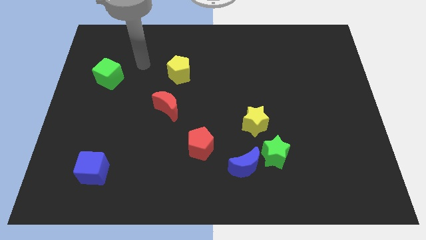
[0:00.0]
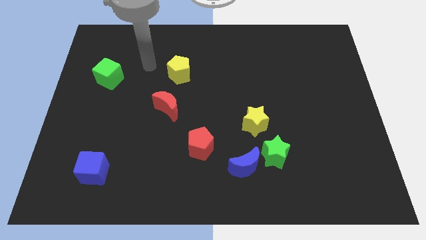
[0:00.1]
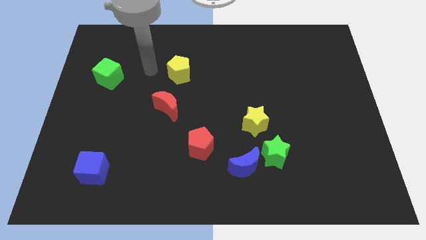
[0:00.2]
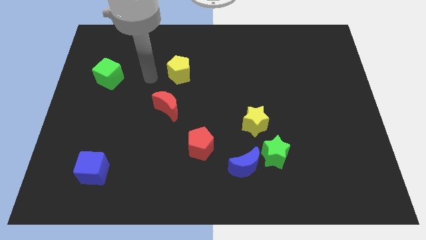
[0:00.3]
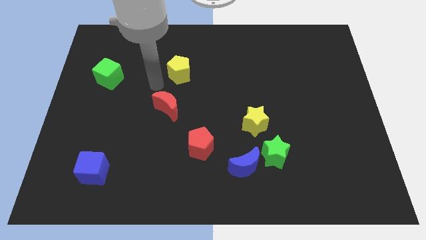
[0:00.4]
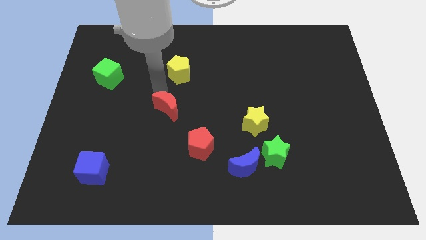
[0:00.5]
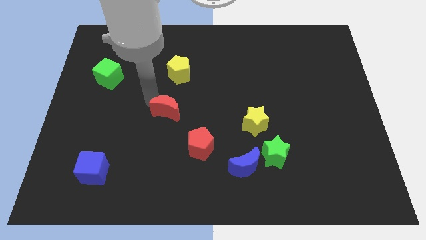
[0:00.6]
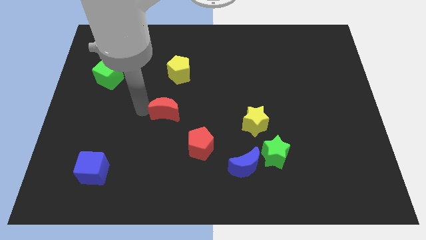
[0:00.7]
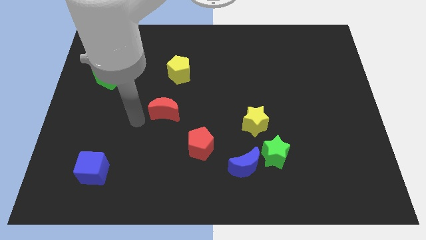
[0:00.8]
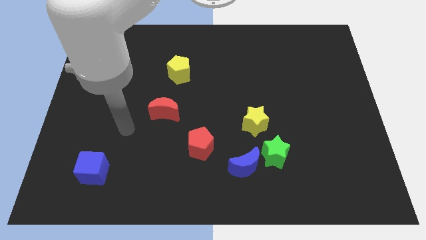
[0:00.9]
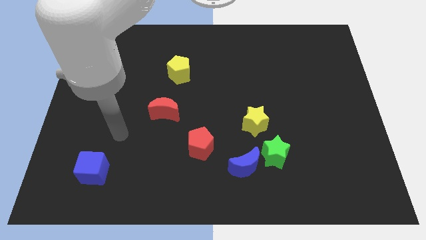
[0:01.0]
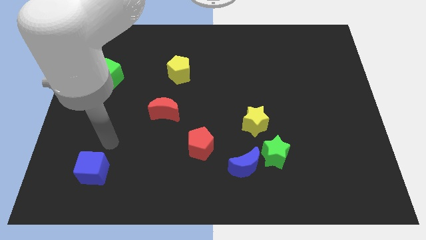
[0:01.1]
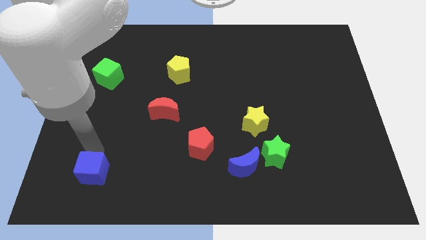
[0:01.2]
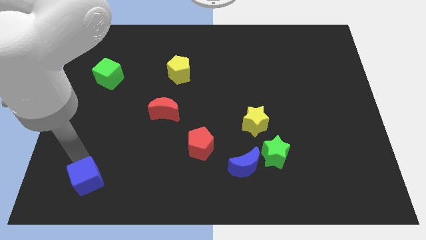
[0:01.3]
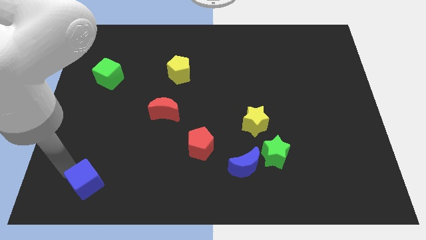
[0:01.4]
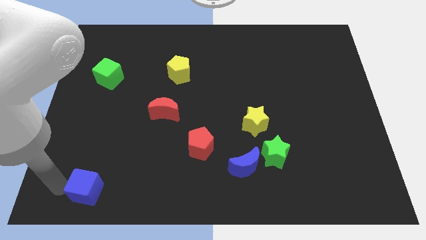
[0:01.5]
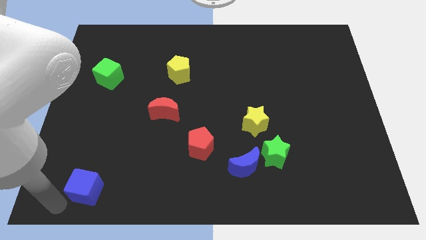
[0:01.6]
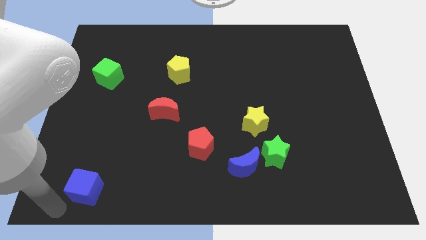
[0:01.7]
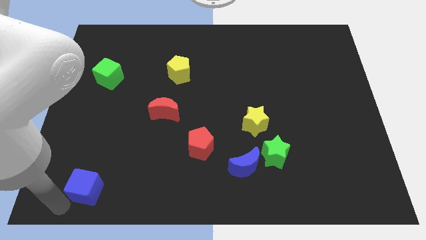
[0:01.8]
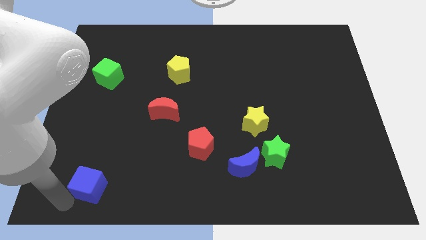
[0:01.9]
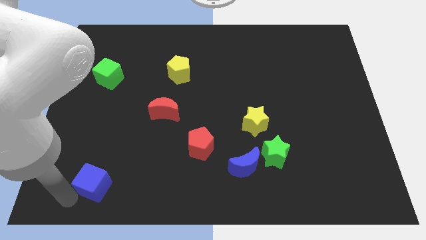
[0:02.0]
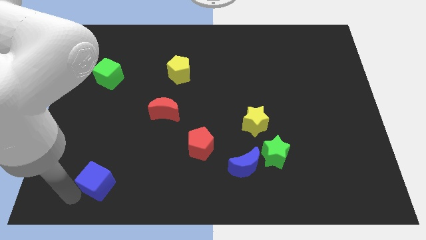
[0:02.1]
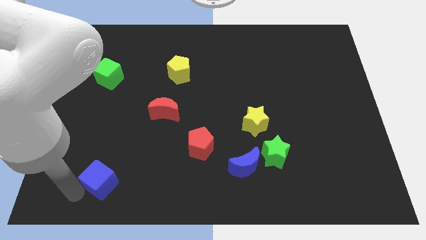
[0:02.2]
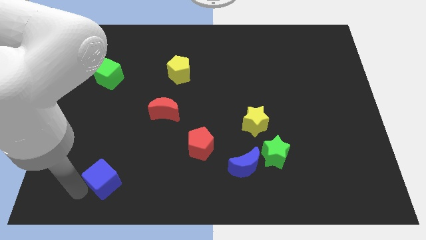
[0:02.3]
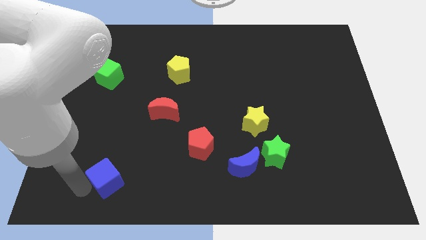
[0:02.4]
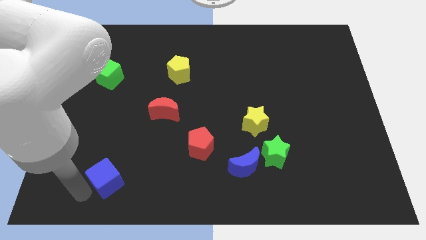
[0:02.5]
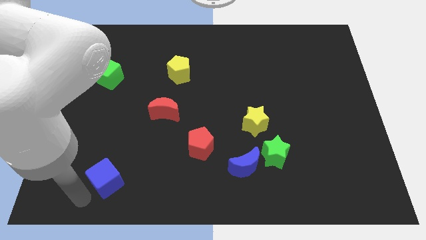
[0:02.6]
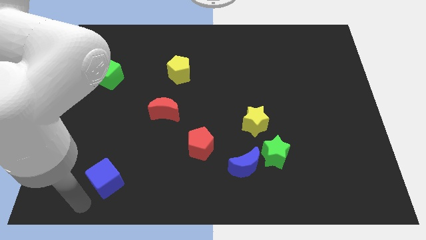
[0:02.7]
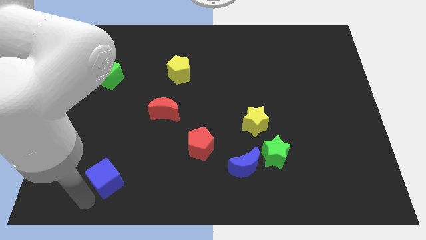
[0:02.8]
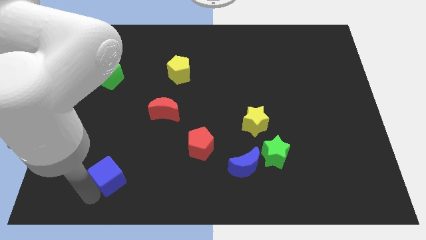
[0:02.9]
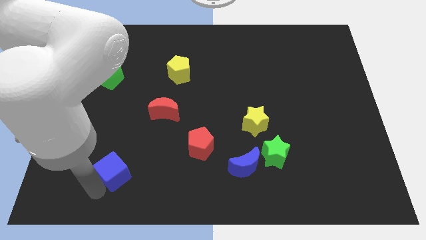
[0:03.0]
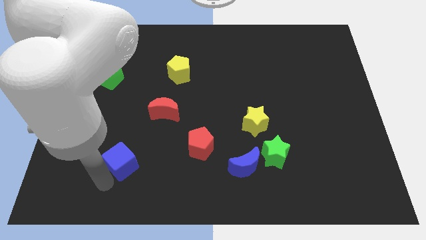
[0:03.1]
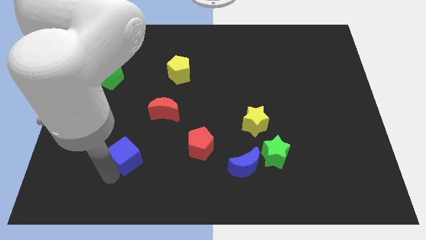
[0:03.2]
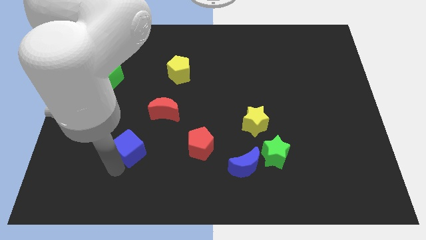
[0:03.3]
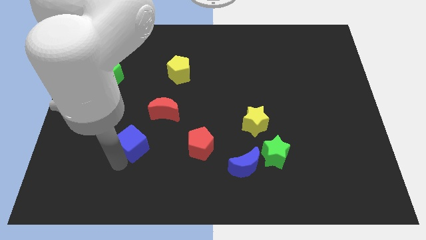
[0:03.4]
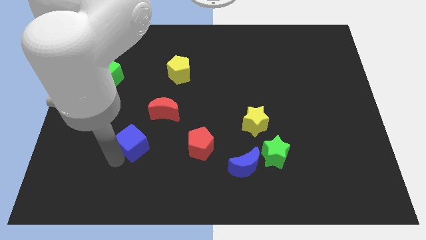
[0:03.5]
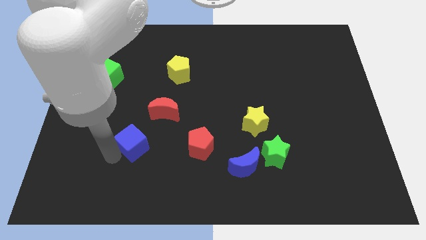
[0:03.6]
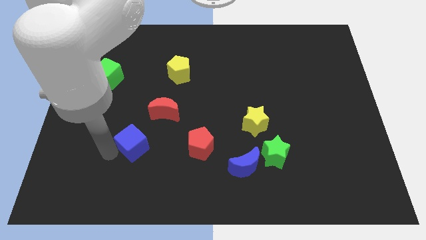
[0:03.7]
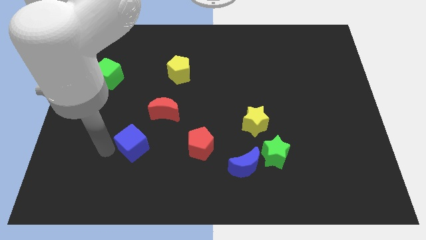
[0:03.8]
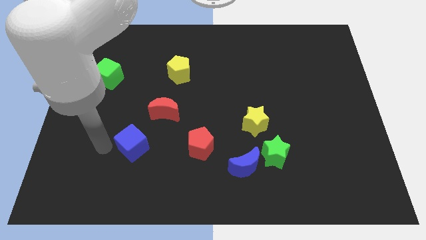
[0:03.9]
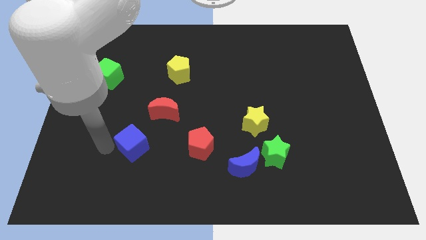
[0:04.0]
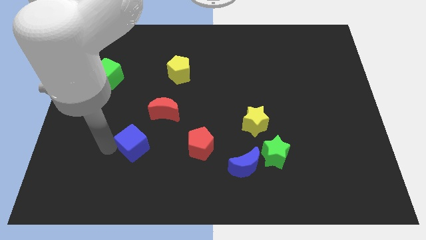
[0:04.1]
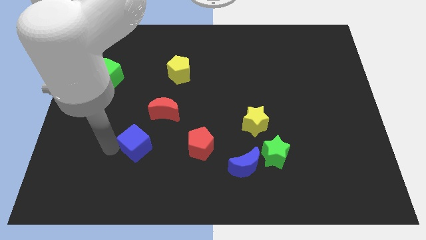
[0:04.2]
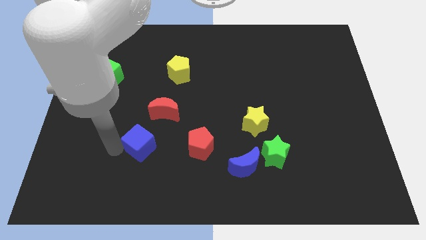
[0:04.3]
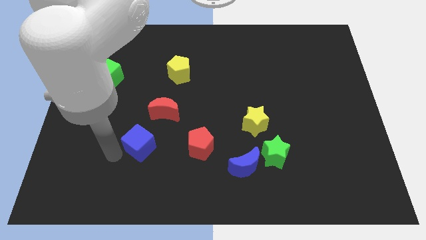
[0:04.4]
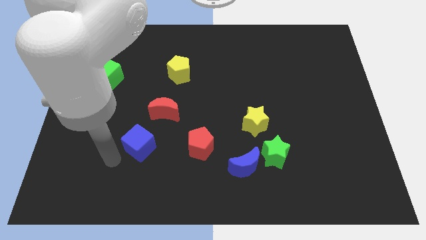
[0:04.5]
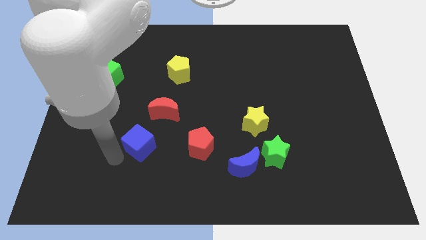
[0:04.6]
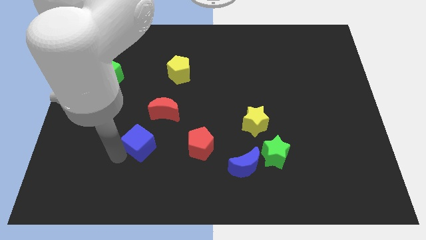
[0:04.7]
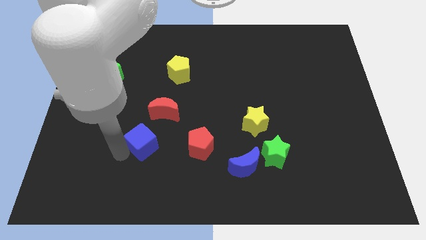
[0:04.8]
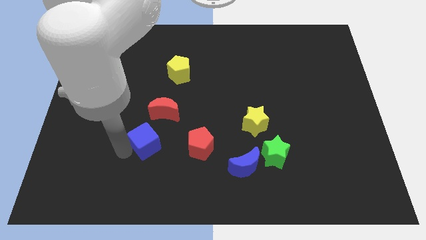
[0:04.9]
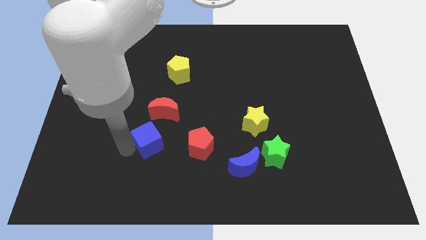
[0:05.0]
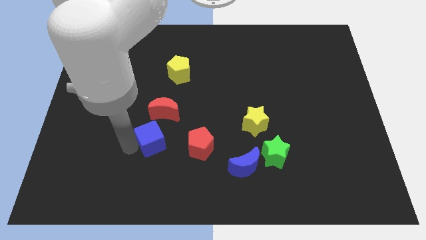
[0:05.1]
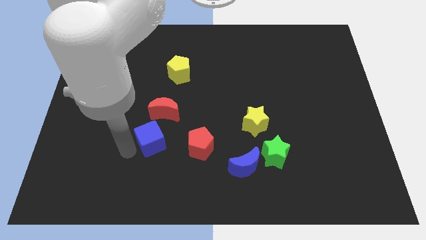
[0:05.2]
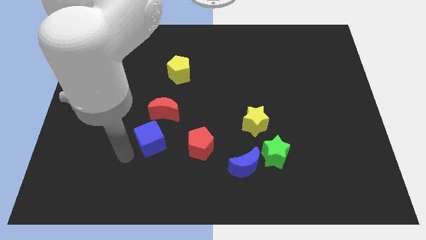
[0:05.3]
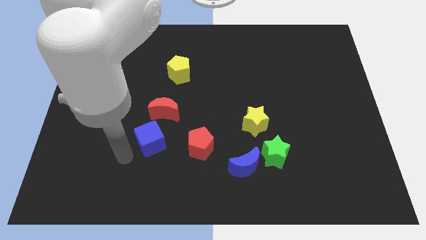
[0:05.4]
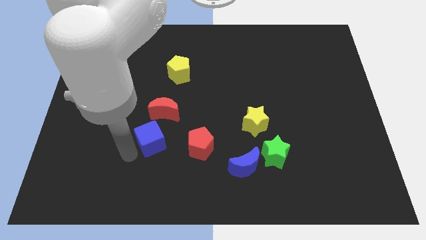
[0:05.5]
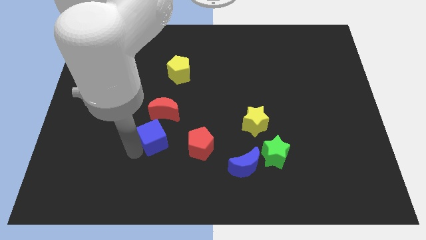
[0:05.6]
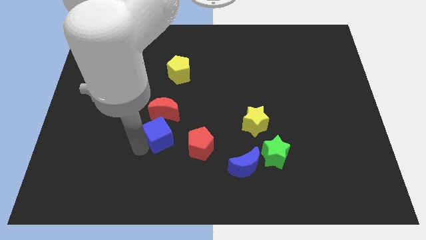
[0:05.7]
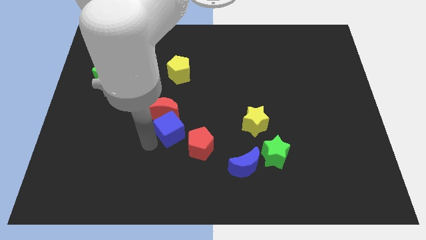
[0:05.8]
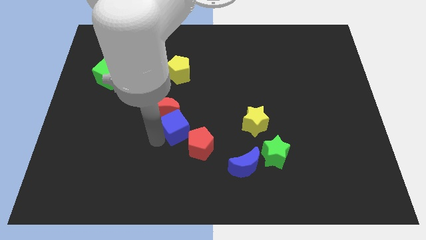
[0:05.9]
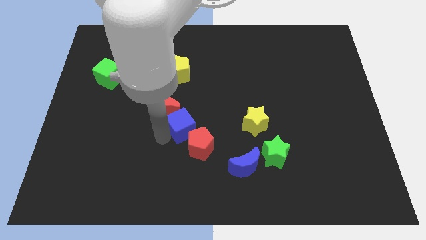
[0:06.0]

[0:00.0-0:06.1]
push the blue cube to the top side of the red pentagon

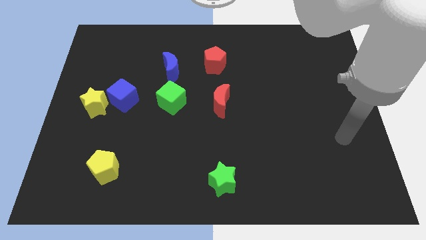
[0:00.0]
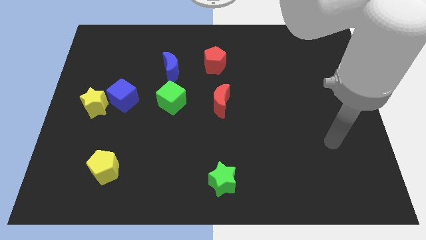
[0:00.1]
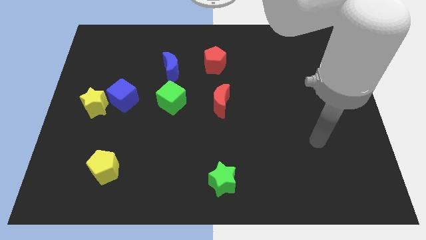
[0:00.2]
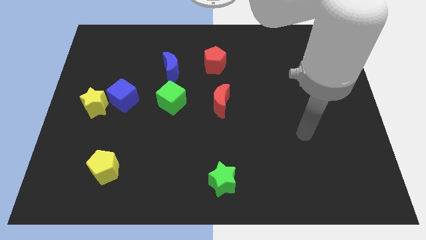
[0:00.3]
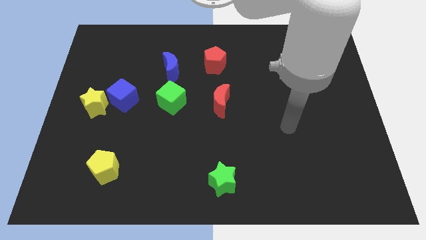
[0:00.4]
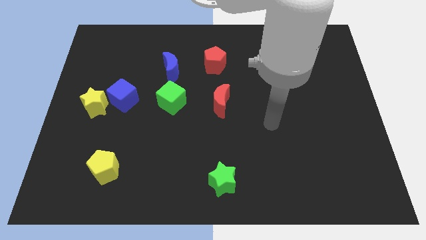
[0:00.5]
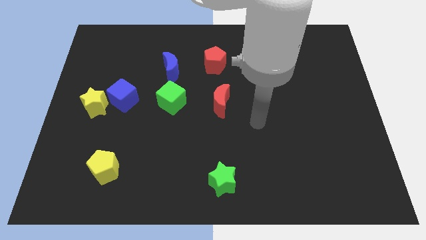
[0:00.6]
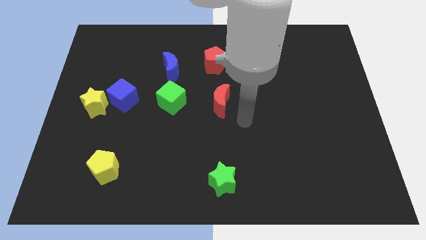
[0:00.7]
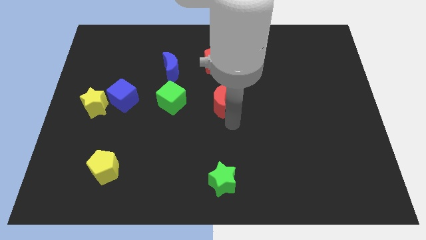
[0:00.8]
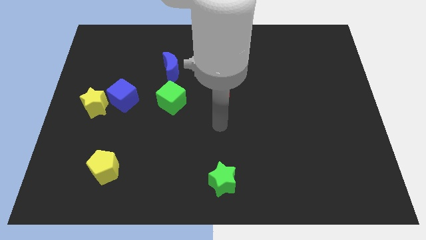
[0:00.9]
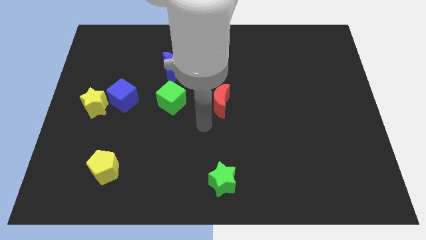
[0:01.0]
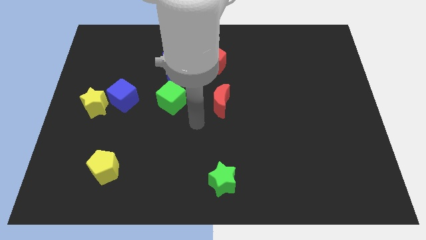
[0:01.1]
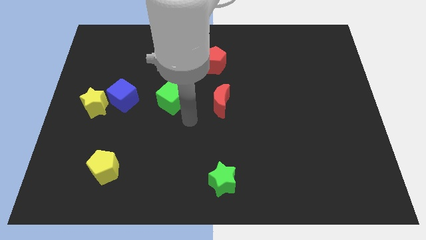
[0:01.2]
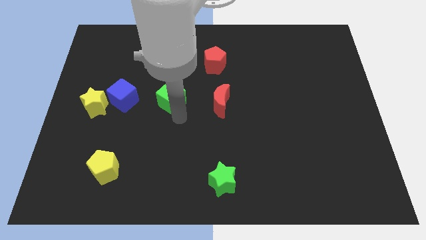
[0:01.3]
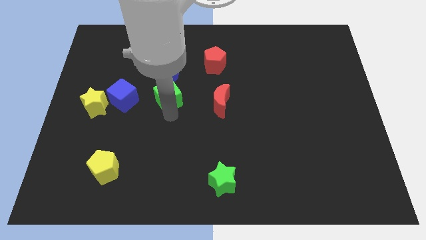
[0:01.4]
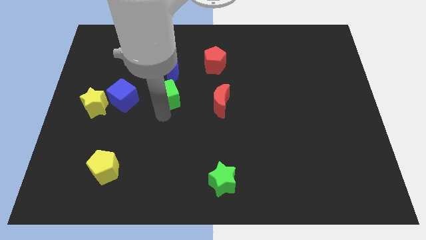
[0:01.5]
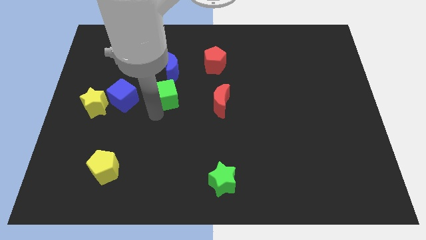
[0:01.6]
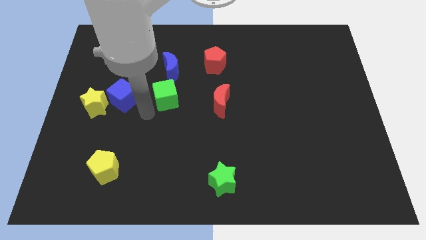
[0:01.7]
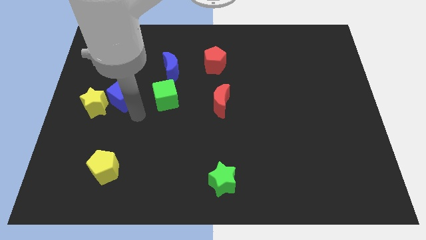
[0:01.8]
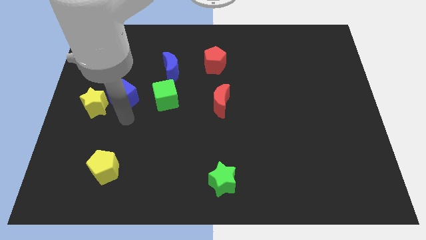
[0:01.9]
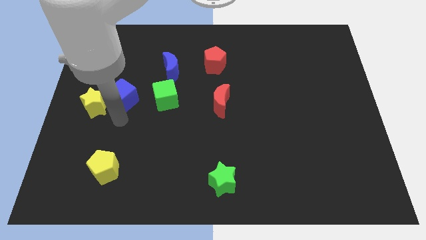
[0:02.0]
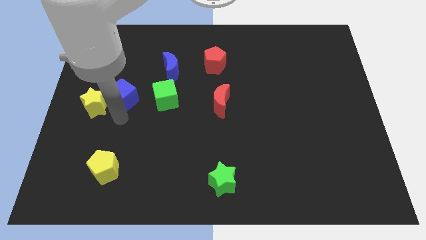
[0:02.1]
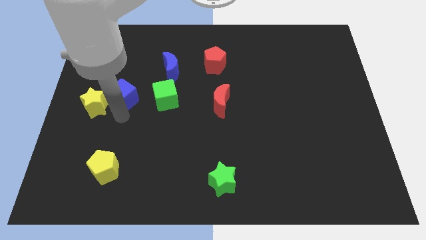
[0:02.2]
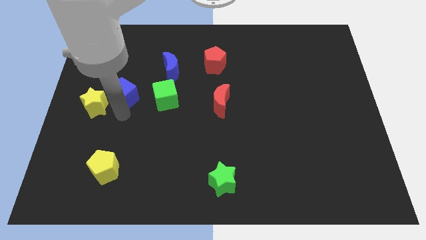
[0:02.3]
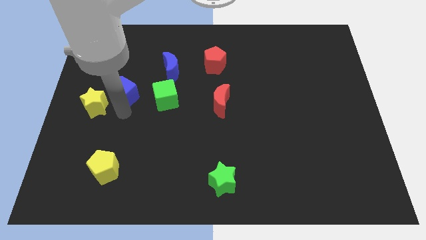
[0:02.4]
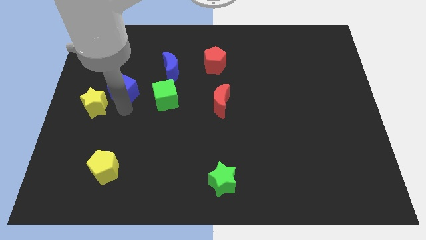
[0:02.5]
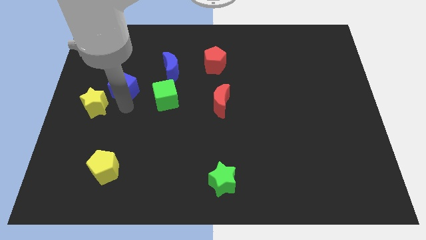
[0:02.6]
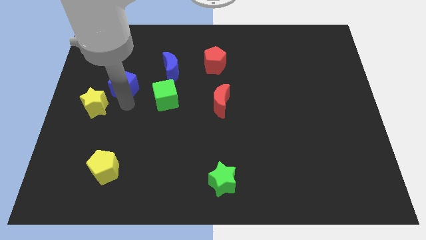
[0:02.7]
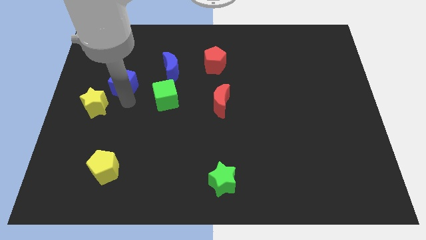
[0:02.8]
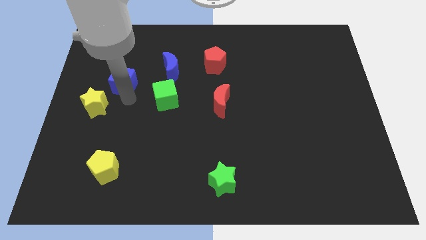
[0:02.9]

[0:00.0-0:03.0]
move the blue cube just left of the blue moon
